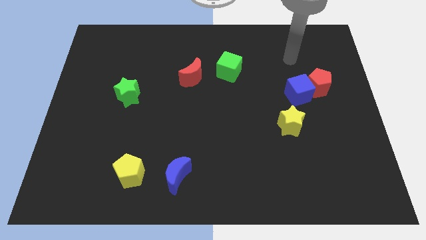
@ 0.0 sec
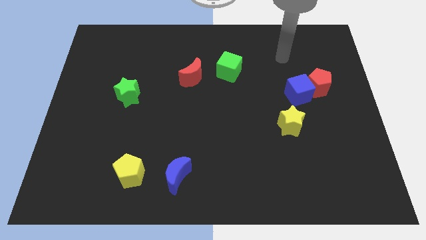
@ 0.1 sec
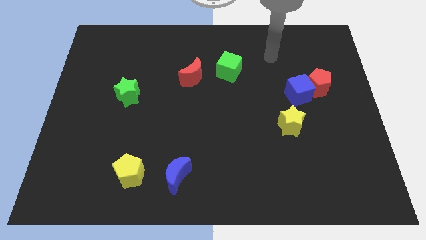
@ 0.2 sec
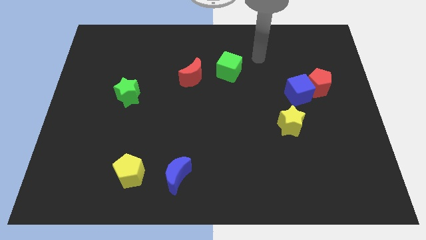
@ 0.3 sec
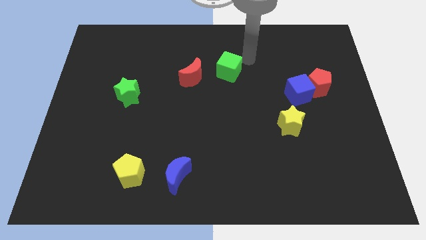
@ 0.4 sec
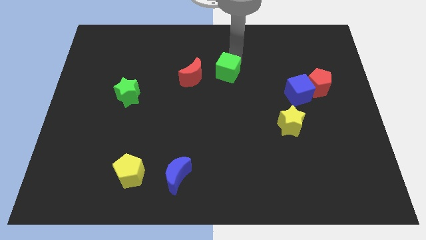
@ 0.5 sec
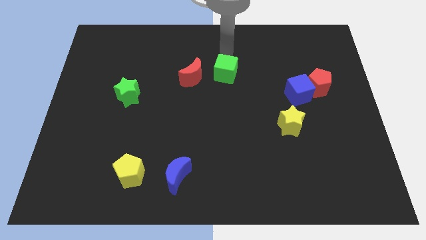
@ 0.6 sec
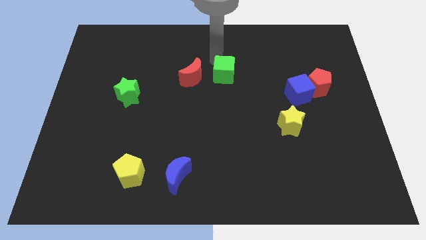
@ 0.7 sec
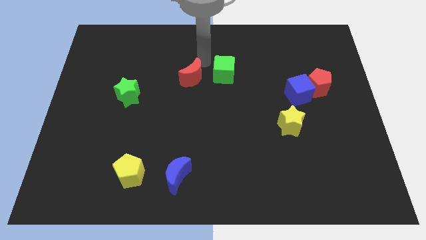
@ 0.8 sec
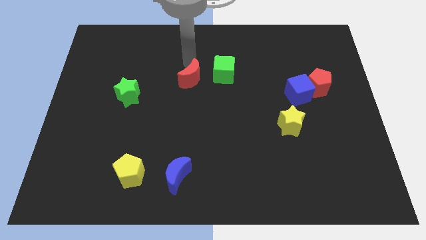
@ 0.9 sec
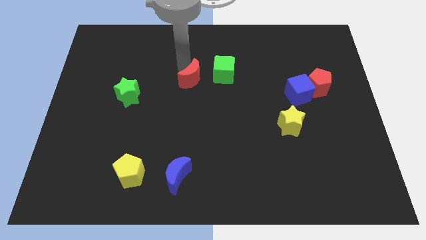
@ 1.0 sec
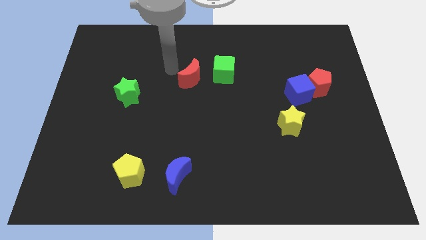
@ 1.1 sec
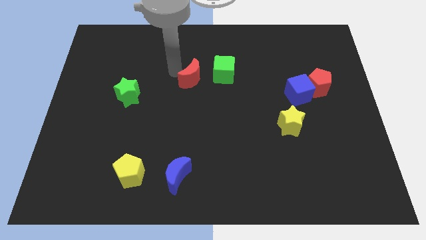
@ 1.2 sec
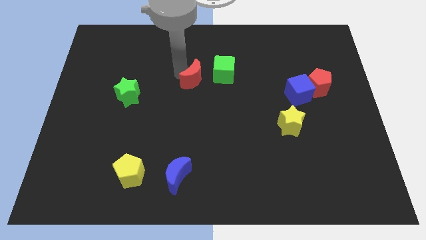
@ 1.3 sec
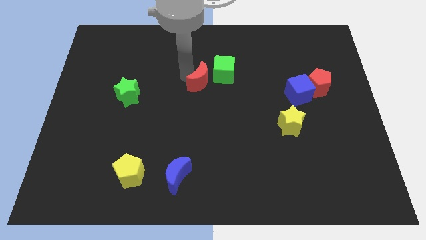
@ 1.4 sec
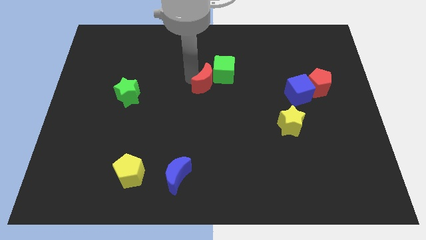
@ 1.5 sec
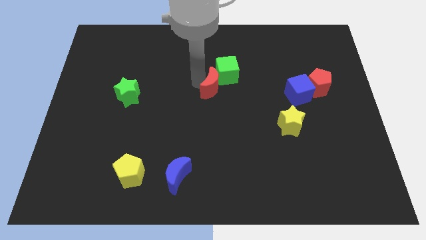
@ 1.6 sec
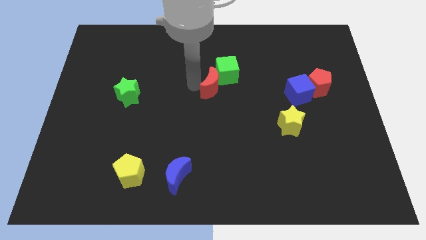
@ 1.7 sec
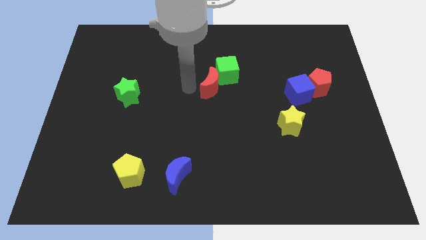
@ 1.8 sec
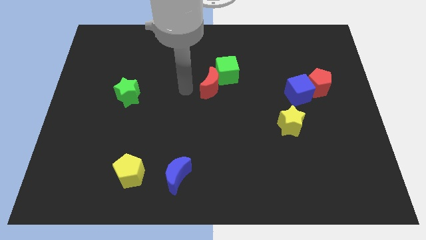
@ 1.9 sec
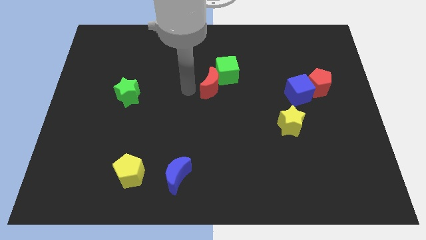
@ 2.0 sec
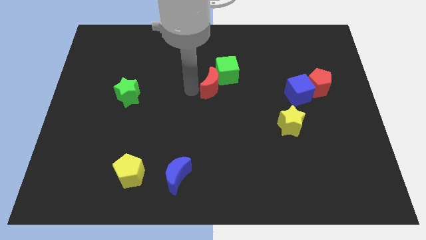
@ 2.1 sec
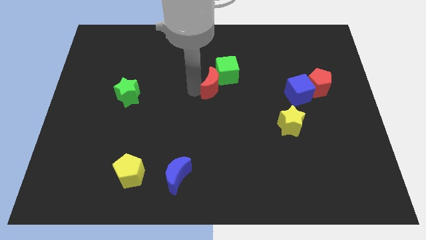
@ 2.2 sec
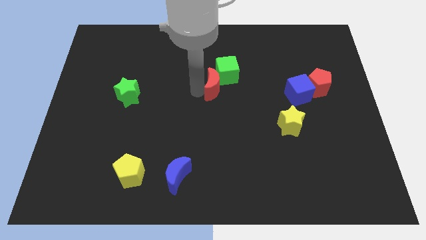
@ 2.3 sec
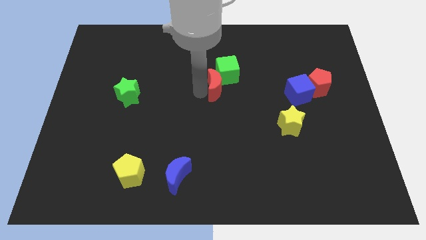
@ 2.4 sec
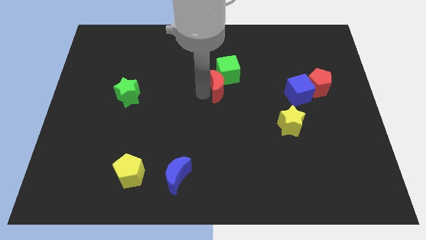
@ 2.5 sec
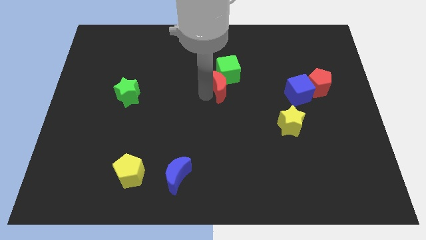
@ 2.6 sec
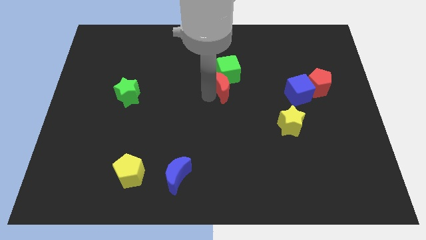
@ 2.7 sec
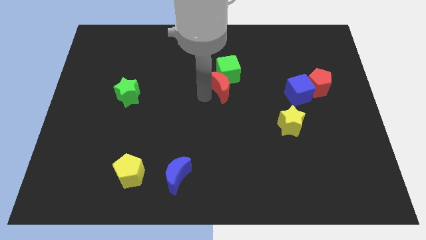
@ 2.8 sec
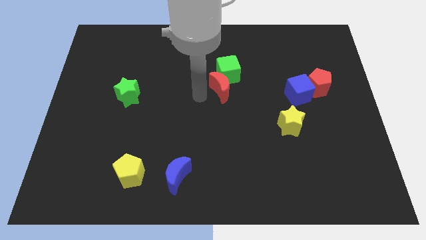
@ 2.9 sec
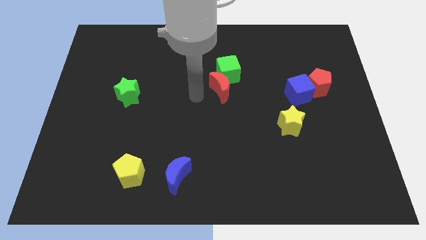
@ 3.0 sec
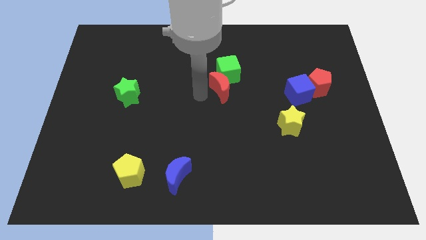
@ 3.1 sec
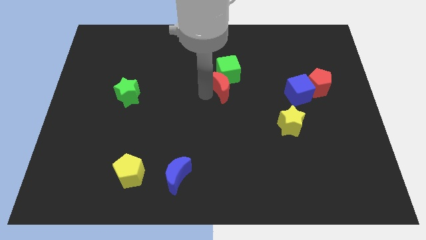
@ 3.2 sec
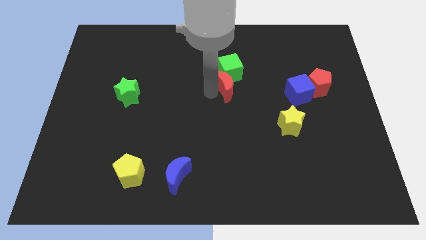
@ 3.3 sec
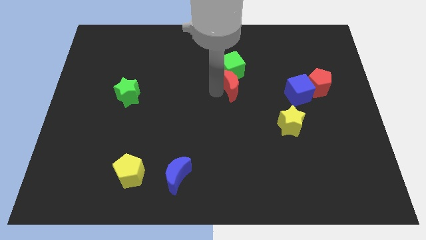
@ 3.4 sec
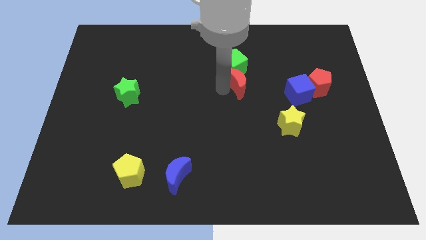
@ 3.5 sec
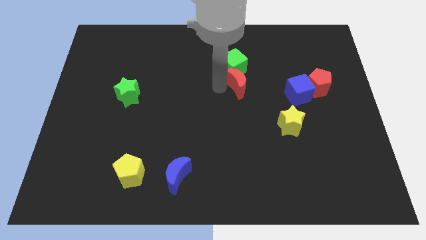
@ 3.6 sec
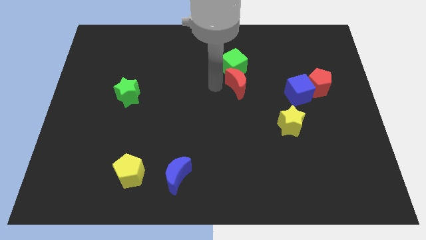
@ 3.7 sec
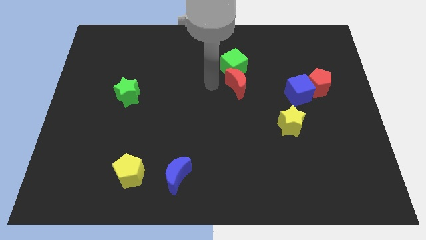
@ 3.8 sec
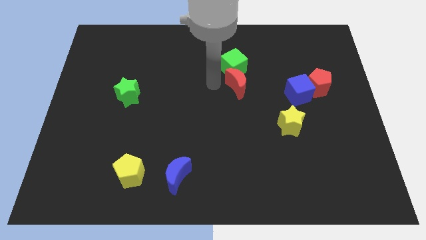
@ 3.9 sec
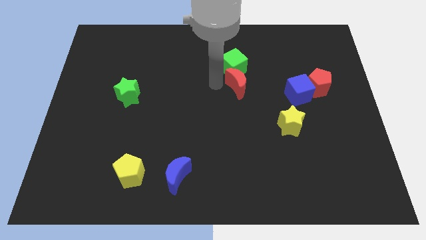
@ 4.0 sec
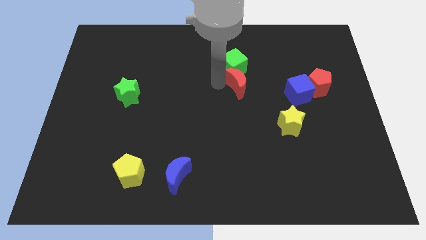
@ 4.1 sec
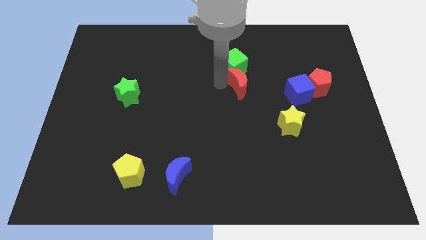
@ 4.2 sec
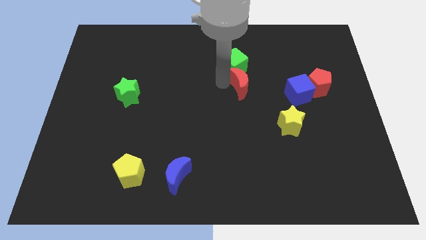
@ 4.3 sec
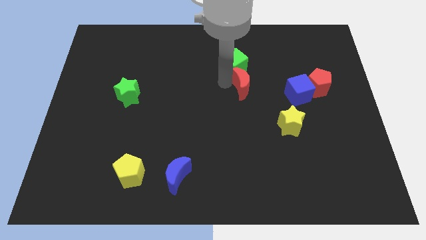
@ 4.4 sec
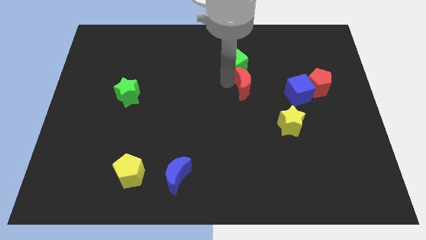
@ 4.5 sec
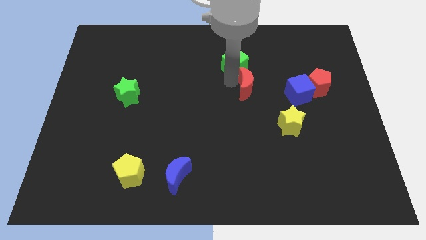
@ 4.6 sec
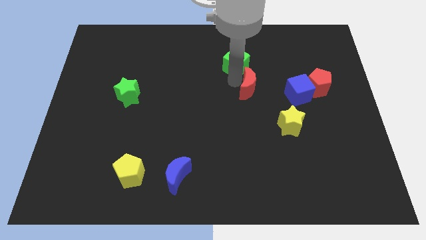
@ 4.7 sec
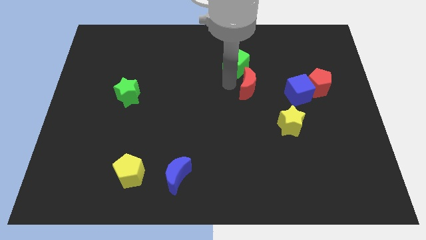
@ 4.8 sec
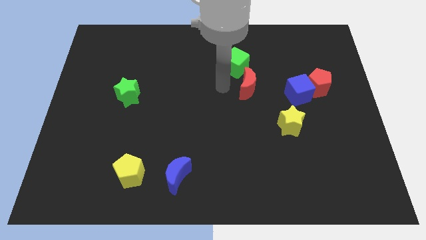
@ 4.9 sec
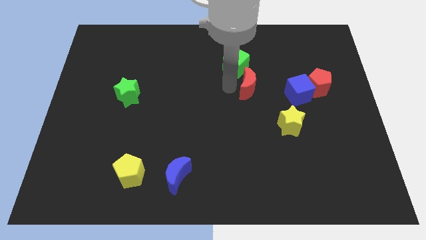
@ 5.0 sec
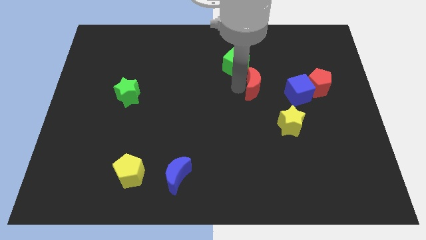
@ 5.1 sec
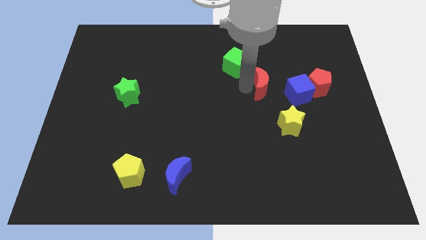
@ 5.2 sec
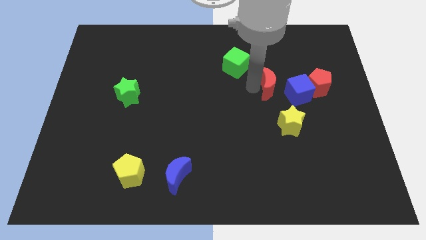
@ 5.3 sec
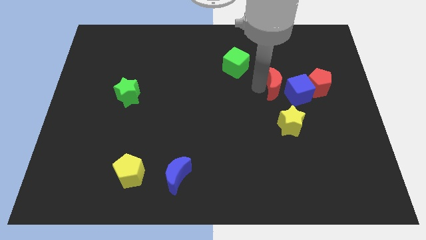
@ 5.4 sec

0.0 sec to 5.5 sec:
put the red moon to the blue cube

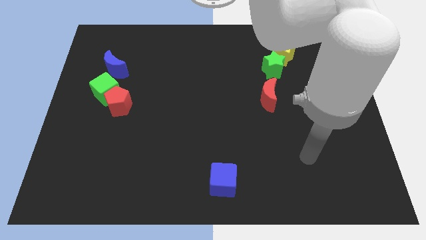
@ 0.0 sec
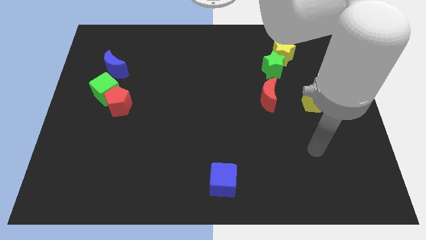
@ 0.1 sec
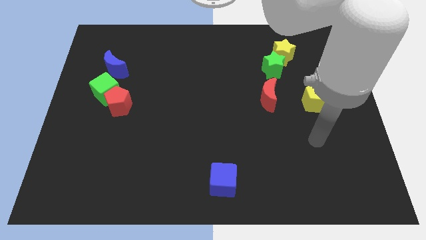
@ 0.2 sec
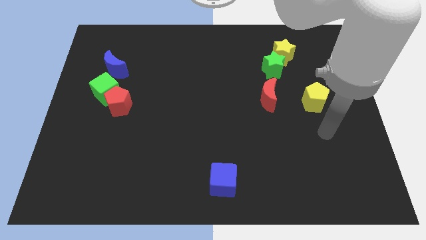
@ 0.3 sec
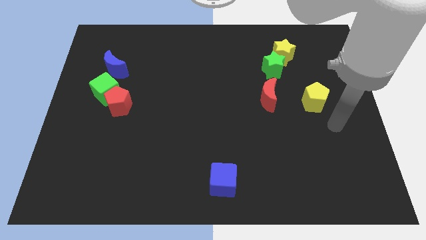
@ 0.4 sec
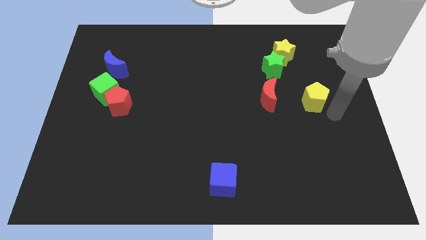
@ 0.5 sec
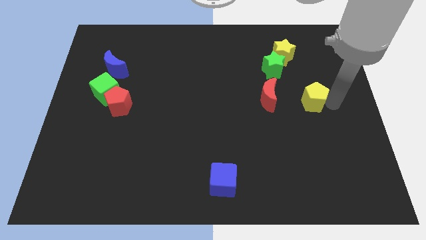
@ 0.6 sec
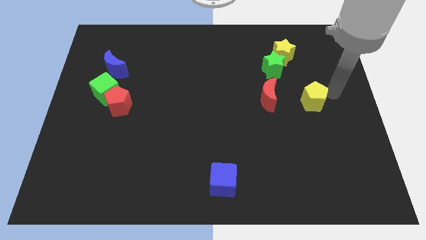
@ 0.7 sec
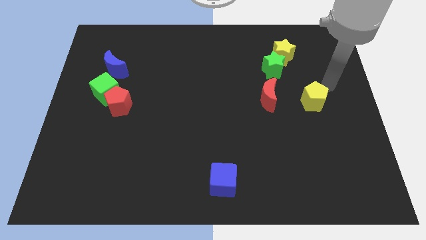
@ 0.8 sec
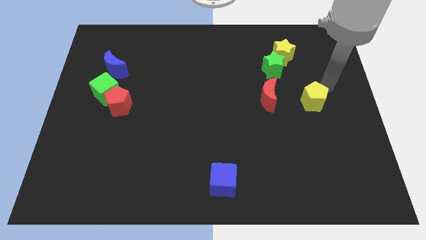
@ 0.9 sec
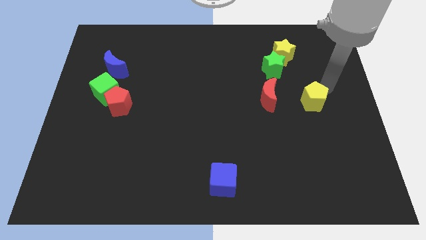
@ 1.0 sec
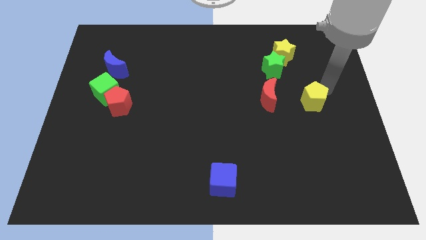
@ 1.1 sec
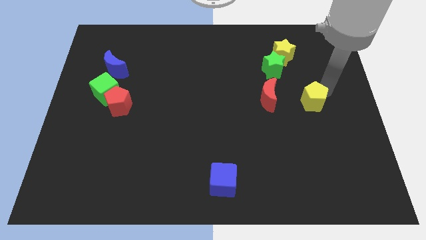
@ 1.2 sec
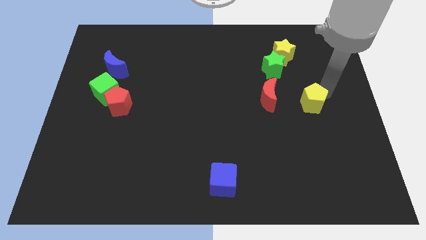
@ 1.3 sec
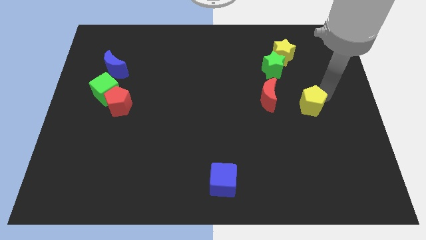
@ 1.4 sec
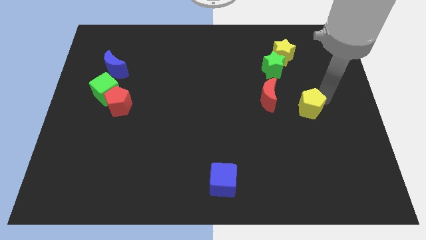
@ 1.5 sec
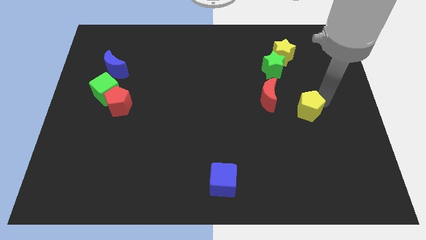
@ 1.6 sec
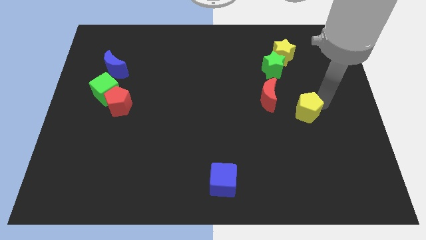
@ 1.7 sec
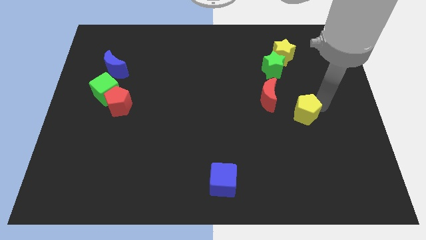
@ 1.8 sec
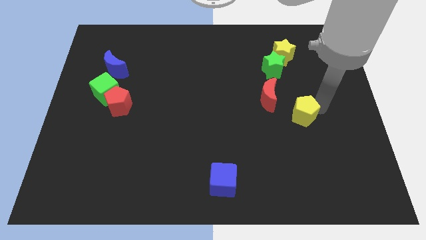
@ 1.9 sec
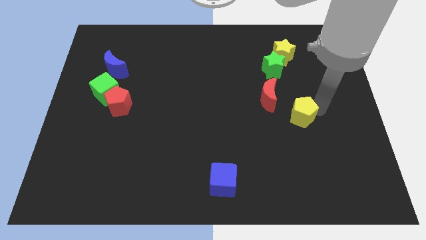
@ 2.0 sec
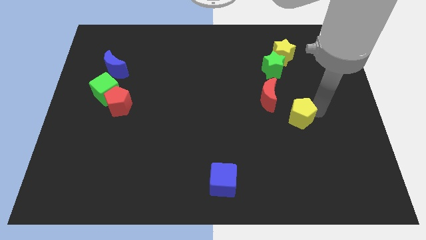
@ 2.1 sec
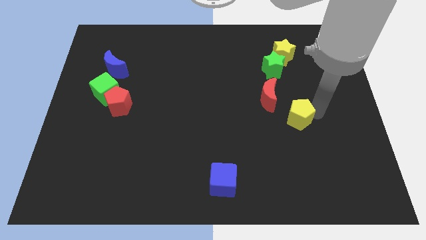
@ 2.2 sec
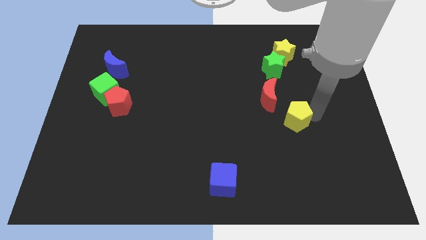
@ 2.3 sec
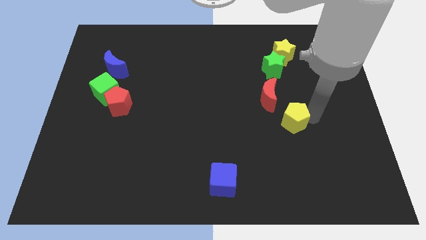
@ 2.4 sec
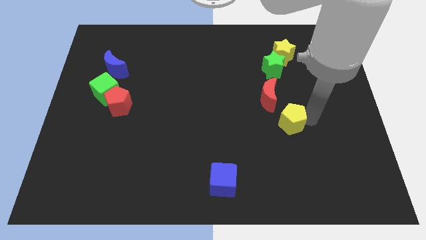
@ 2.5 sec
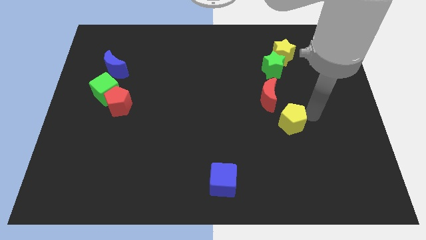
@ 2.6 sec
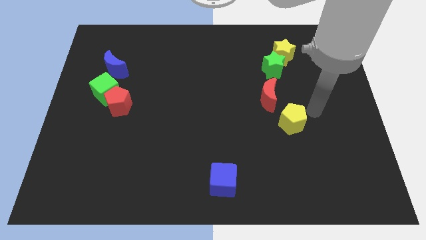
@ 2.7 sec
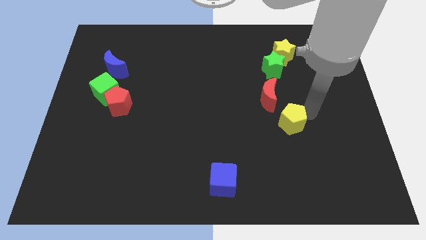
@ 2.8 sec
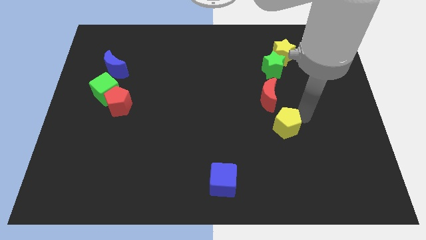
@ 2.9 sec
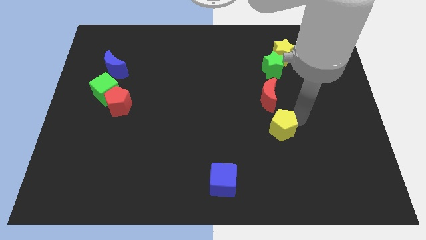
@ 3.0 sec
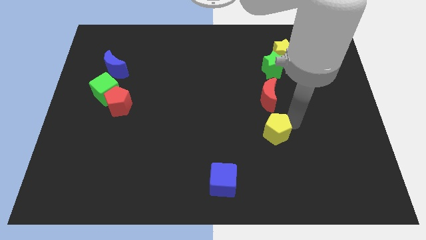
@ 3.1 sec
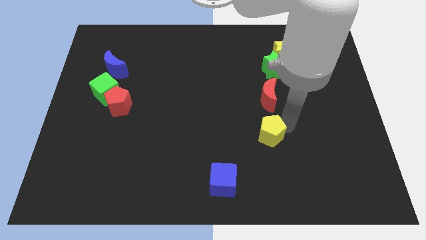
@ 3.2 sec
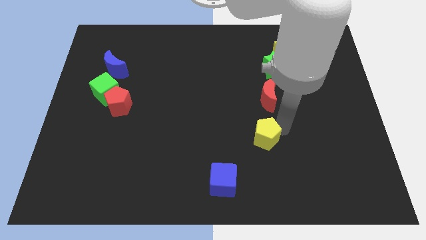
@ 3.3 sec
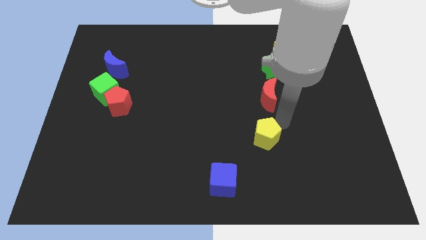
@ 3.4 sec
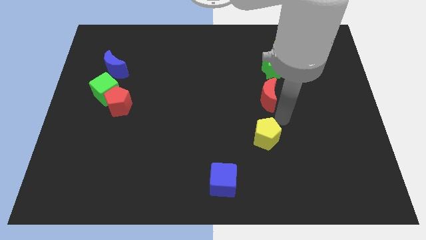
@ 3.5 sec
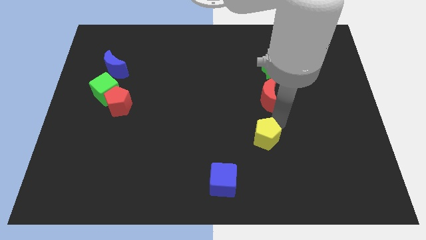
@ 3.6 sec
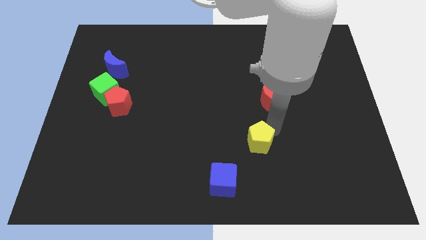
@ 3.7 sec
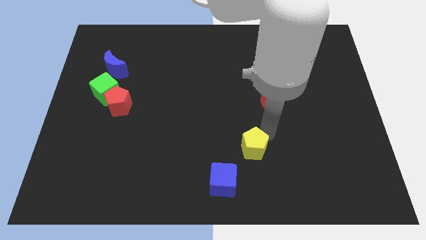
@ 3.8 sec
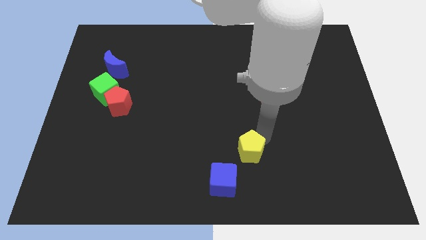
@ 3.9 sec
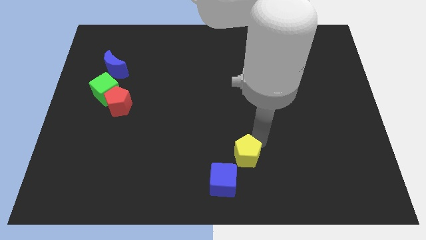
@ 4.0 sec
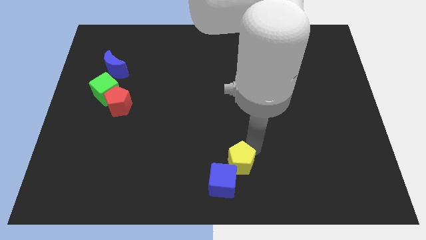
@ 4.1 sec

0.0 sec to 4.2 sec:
slide the yellow pentagon towards the blue cube
